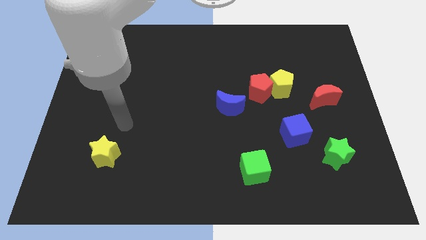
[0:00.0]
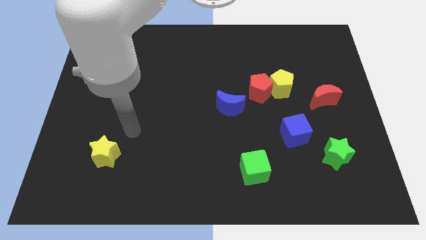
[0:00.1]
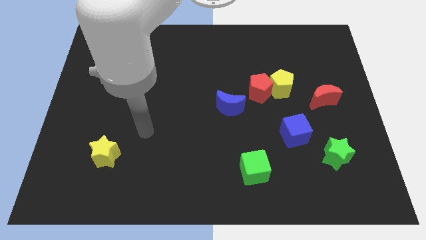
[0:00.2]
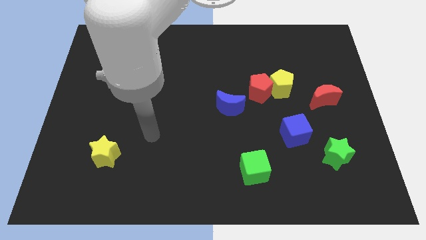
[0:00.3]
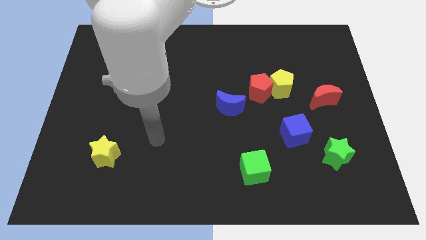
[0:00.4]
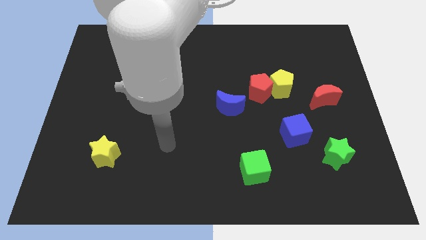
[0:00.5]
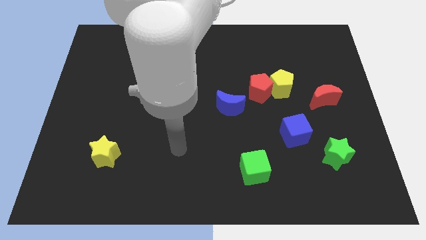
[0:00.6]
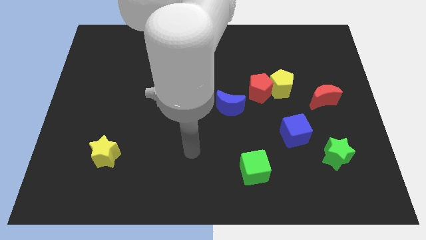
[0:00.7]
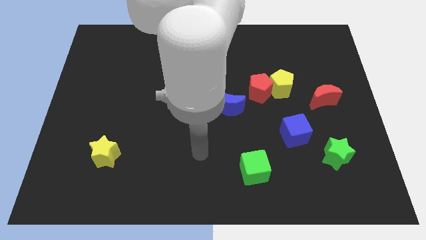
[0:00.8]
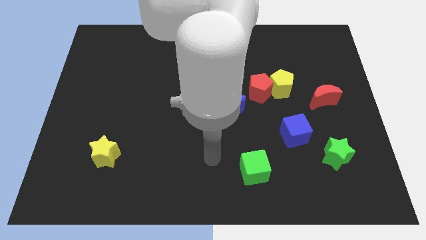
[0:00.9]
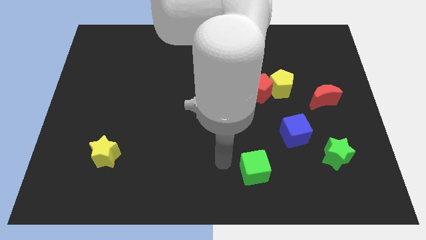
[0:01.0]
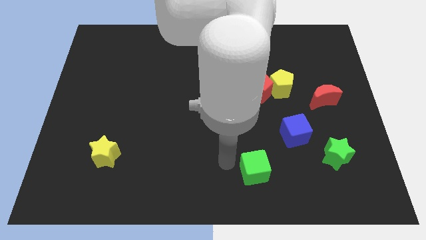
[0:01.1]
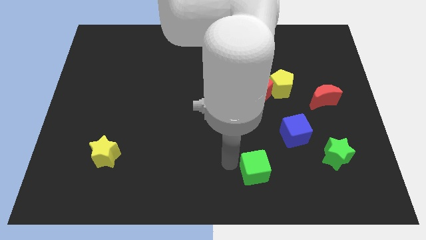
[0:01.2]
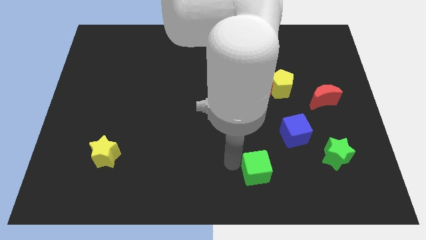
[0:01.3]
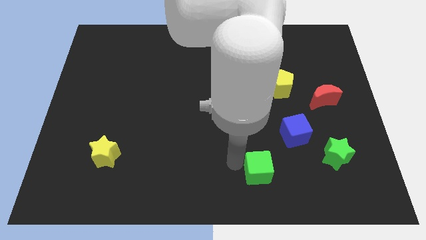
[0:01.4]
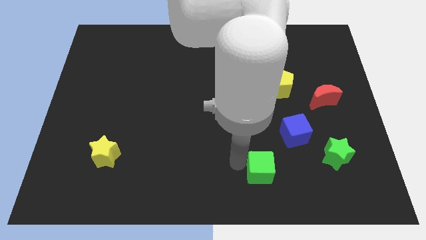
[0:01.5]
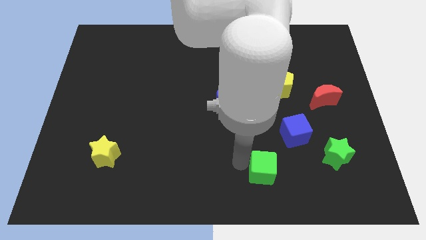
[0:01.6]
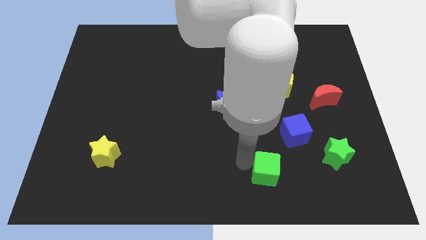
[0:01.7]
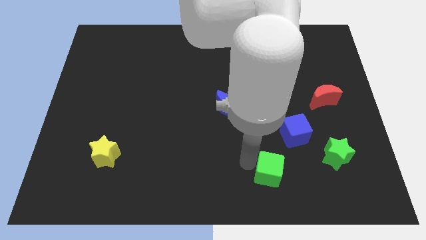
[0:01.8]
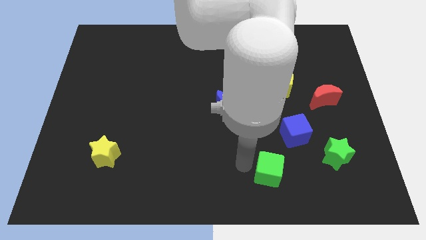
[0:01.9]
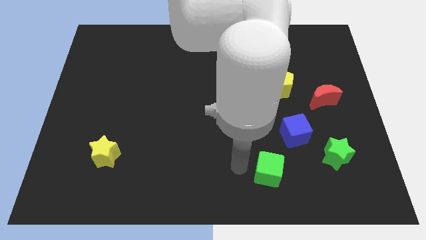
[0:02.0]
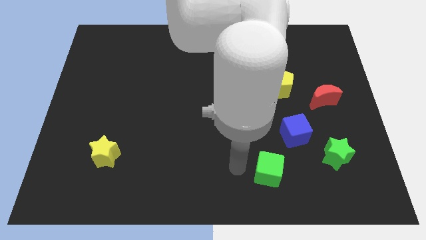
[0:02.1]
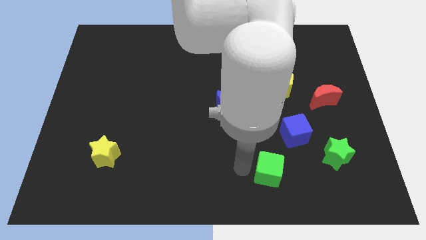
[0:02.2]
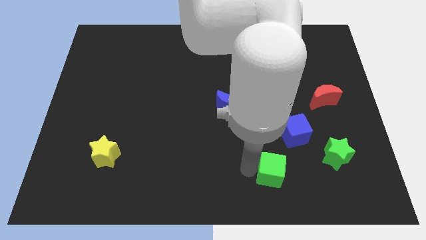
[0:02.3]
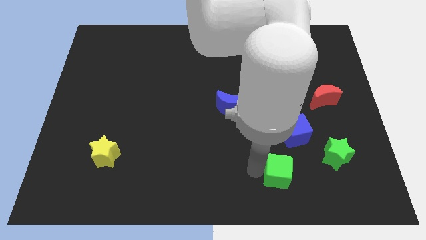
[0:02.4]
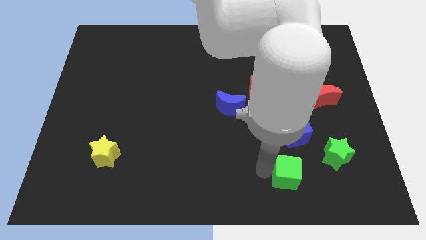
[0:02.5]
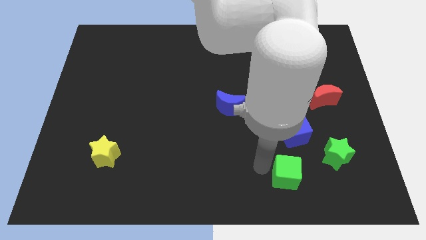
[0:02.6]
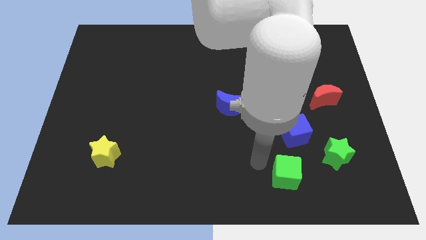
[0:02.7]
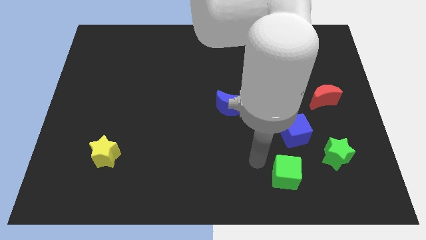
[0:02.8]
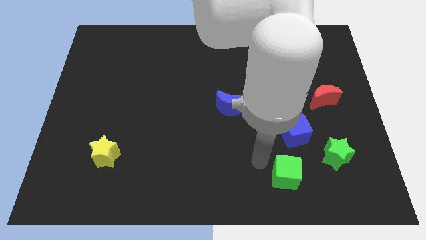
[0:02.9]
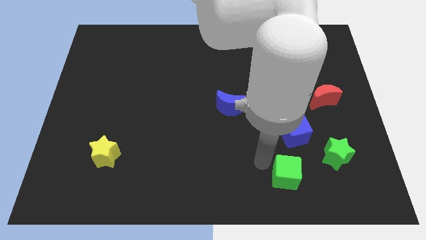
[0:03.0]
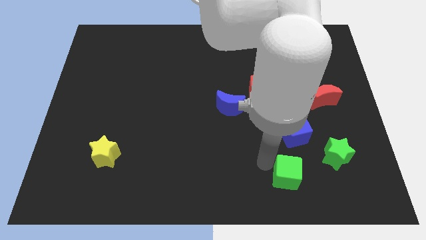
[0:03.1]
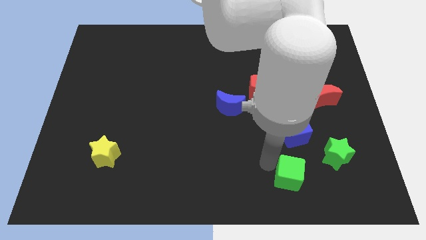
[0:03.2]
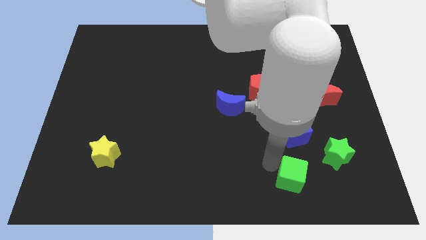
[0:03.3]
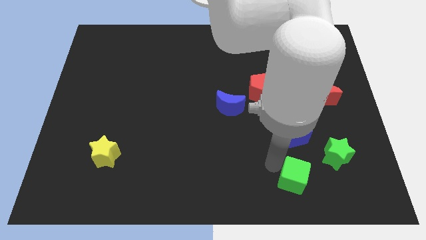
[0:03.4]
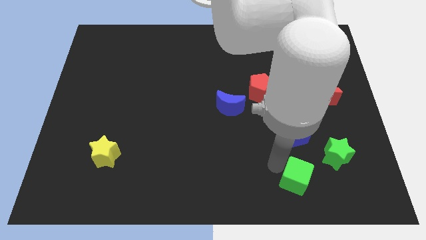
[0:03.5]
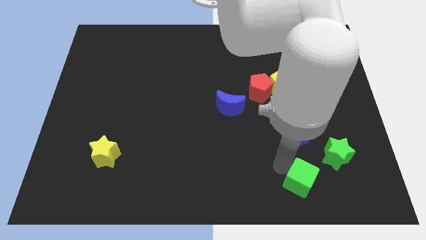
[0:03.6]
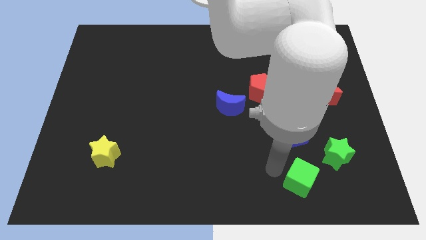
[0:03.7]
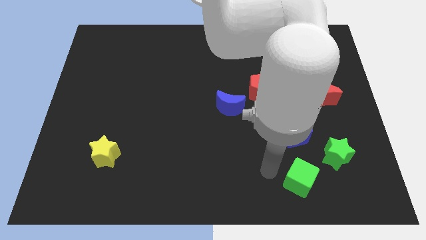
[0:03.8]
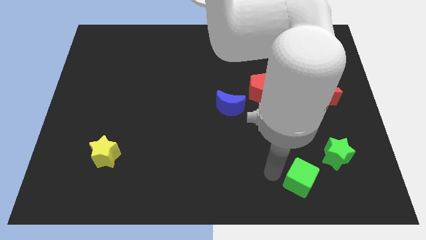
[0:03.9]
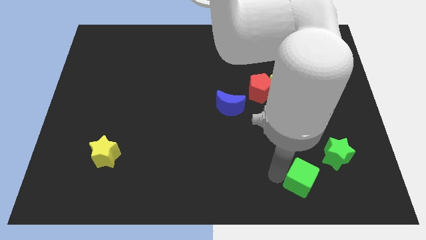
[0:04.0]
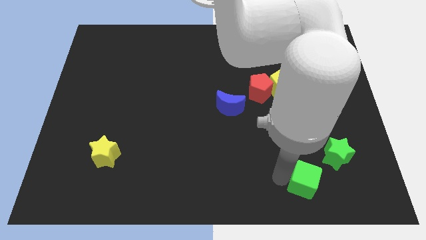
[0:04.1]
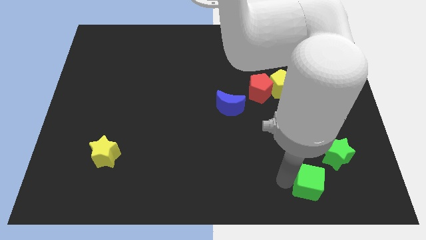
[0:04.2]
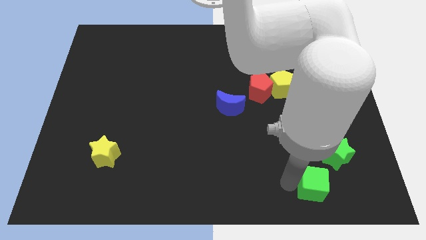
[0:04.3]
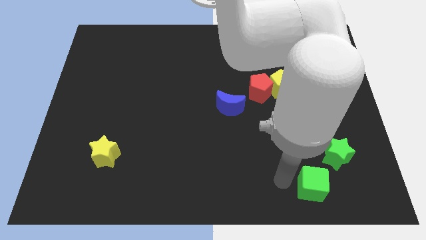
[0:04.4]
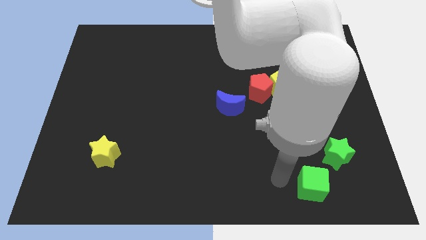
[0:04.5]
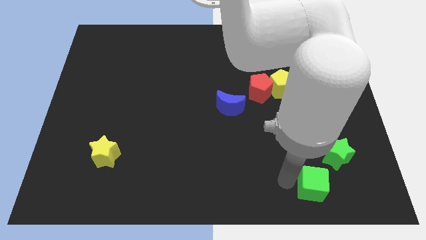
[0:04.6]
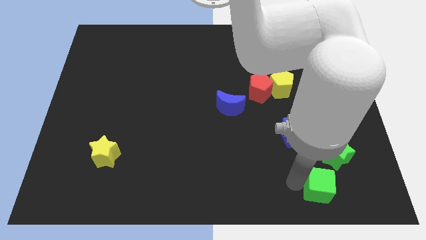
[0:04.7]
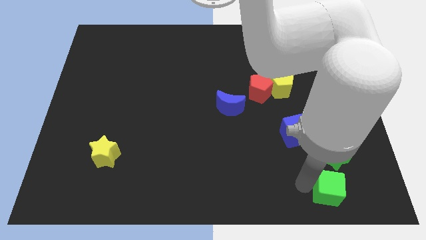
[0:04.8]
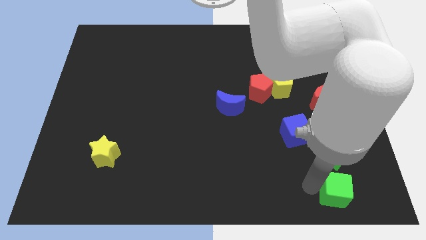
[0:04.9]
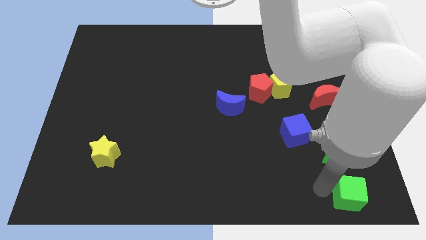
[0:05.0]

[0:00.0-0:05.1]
slide the green cube to the bottom right corner

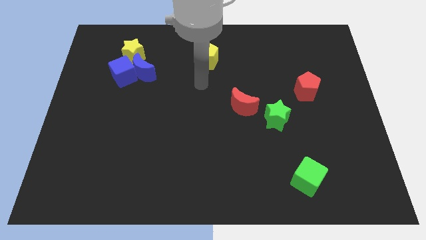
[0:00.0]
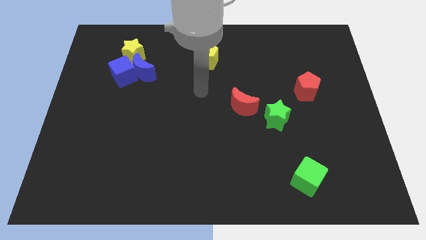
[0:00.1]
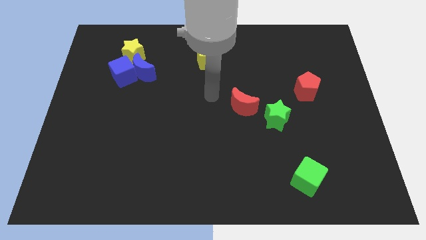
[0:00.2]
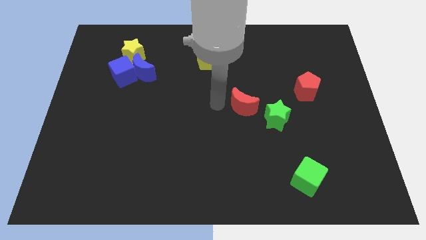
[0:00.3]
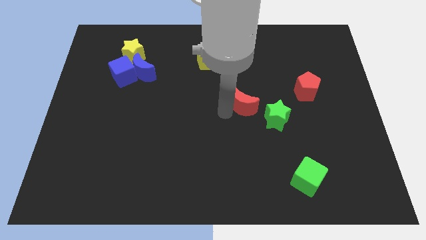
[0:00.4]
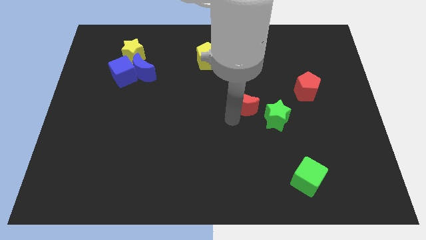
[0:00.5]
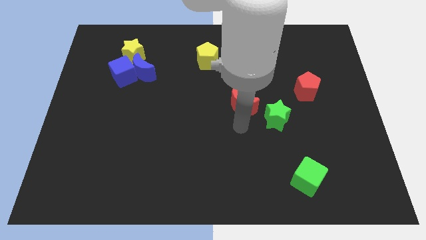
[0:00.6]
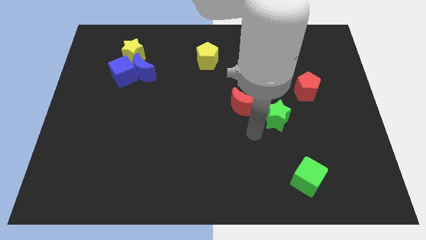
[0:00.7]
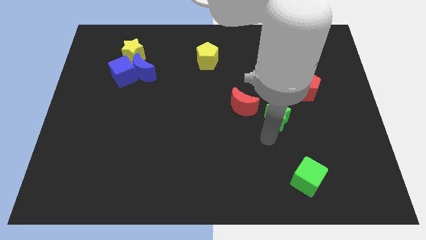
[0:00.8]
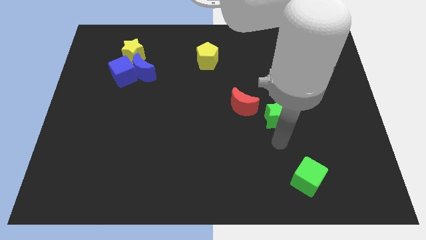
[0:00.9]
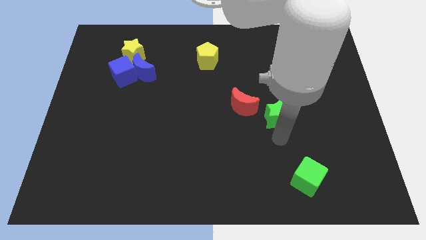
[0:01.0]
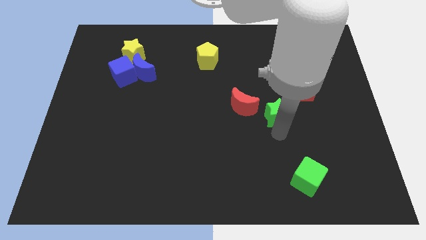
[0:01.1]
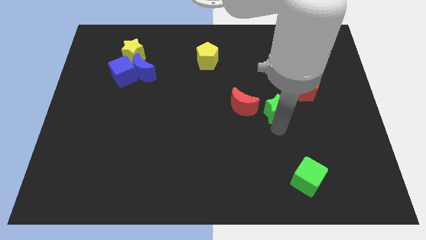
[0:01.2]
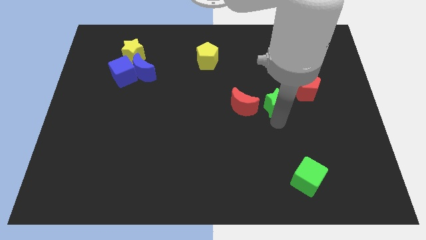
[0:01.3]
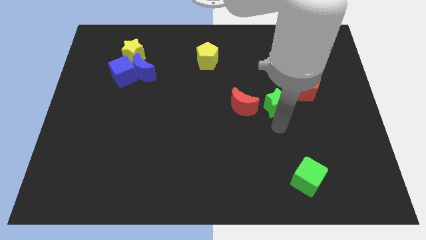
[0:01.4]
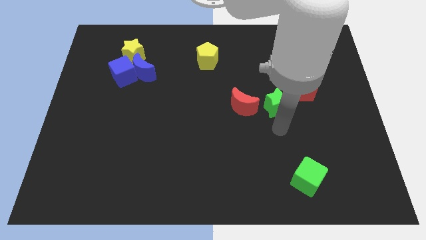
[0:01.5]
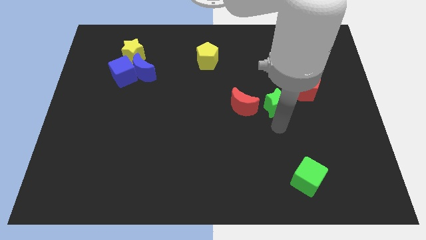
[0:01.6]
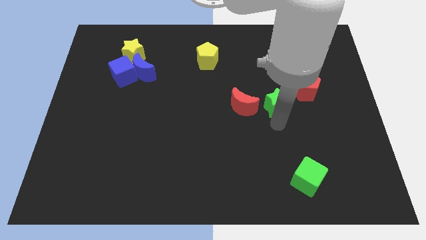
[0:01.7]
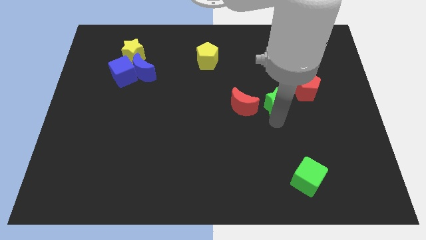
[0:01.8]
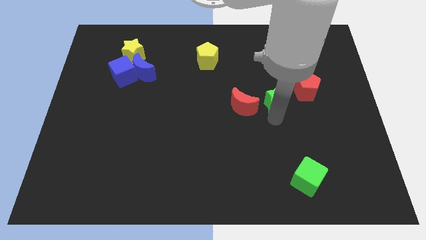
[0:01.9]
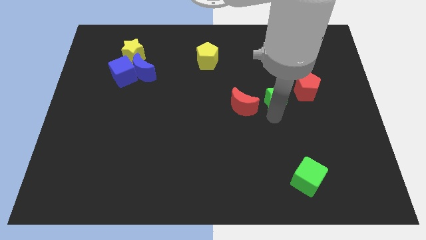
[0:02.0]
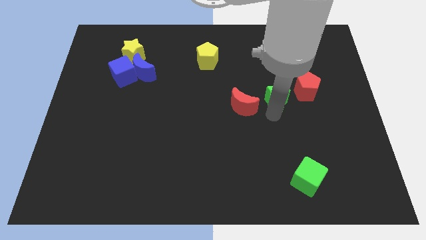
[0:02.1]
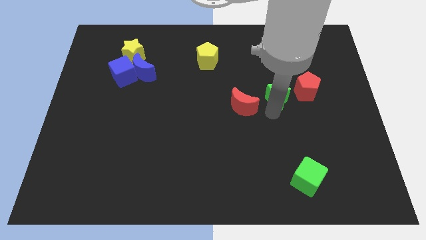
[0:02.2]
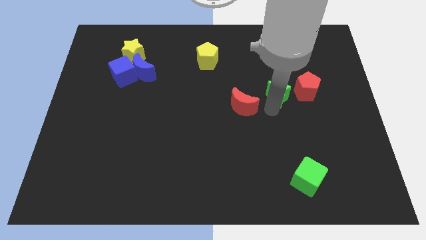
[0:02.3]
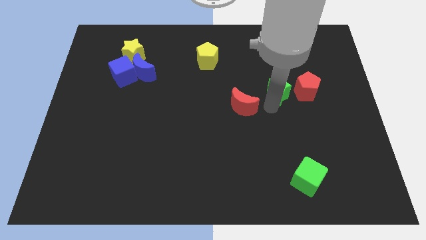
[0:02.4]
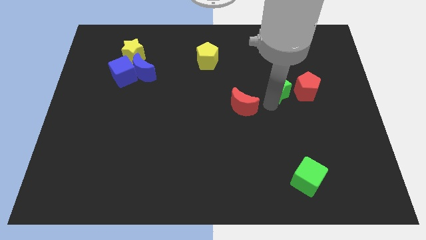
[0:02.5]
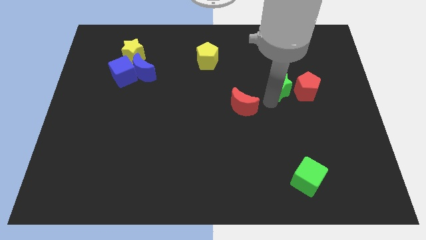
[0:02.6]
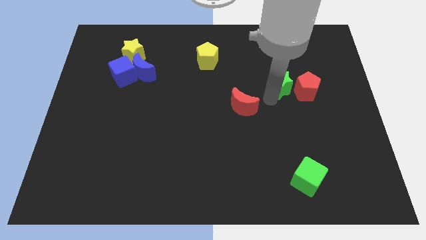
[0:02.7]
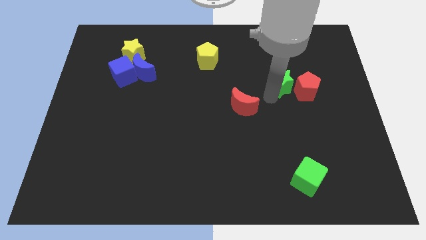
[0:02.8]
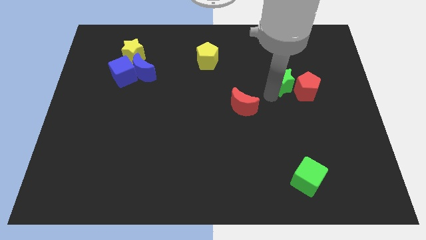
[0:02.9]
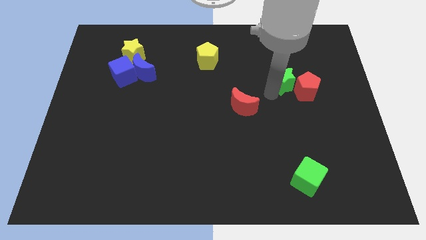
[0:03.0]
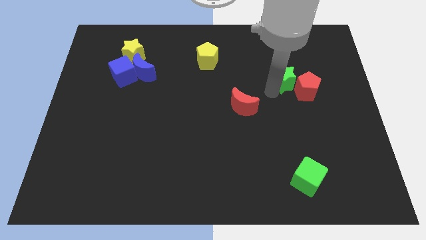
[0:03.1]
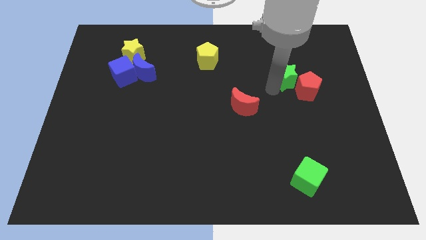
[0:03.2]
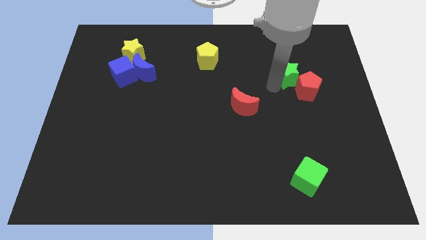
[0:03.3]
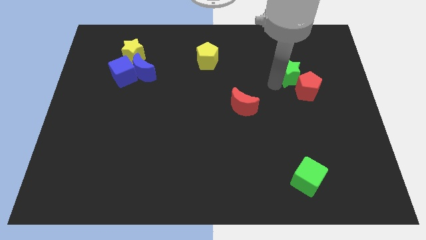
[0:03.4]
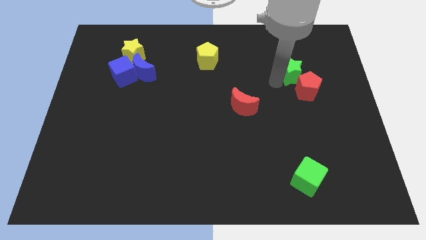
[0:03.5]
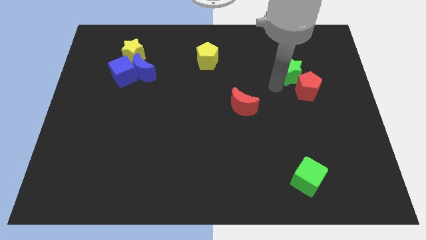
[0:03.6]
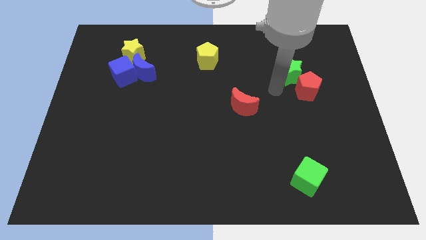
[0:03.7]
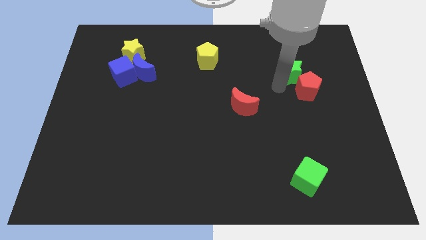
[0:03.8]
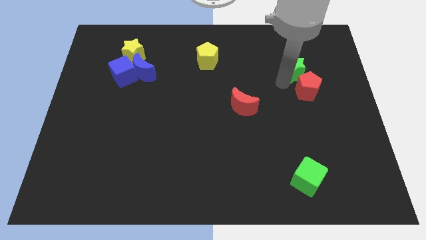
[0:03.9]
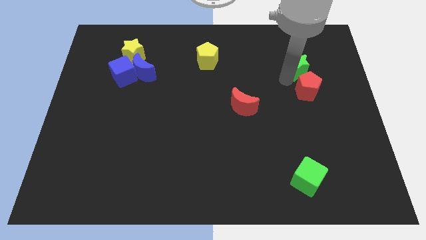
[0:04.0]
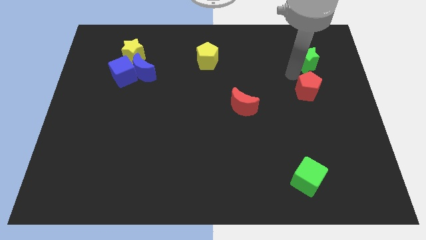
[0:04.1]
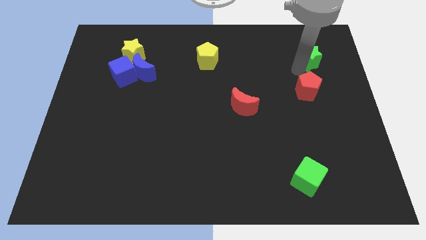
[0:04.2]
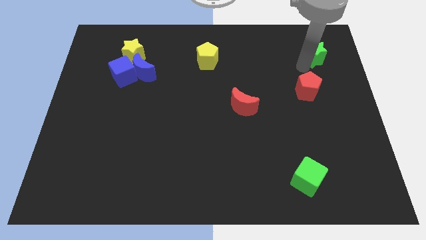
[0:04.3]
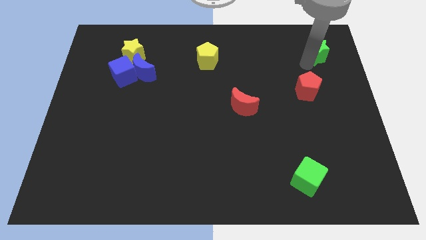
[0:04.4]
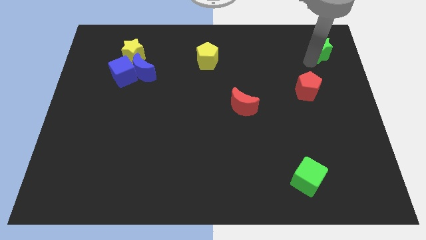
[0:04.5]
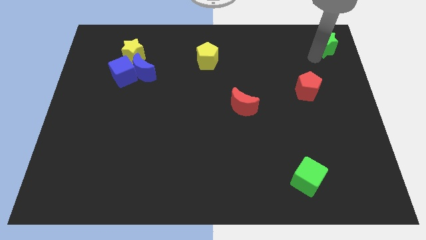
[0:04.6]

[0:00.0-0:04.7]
put the green star to the upper right corner
